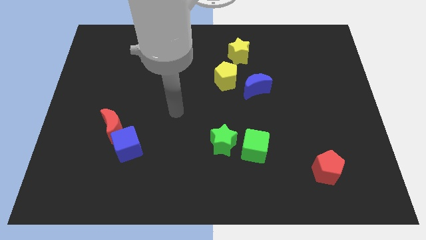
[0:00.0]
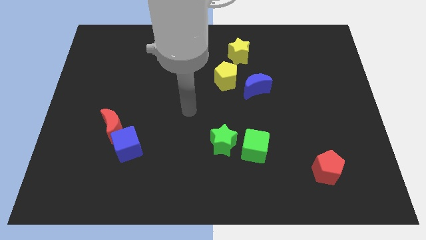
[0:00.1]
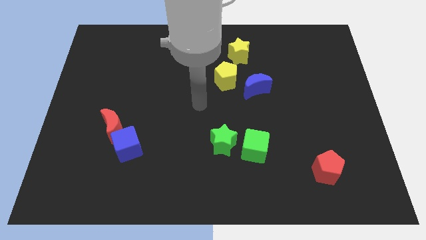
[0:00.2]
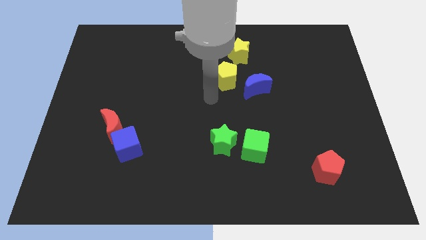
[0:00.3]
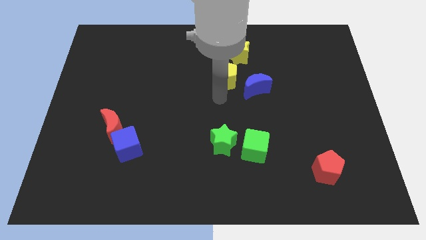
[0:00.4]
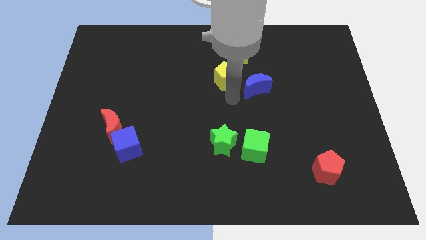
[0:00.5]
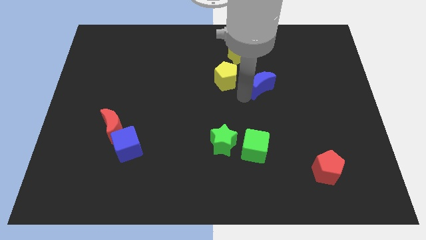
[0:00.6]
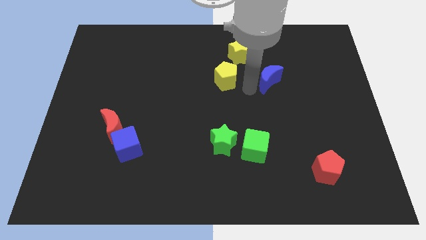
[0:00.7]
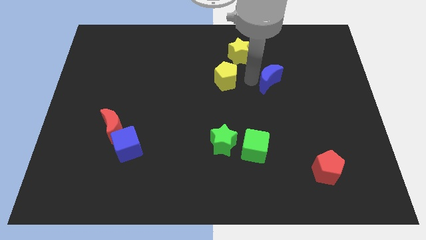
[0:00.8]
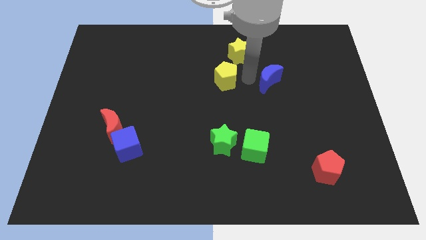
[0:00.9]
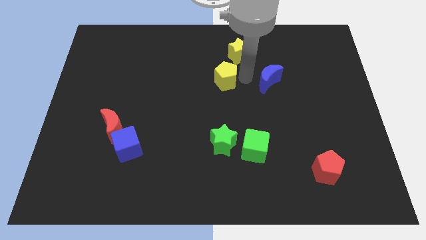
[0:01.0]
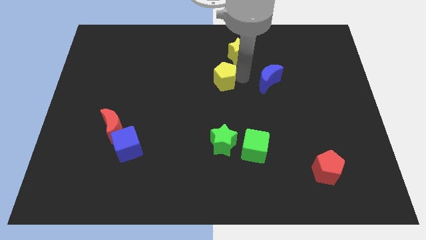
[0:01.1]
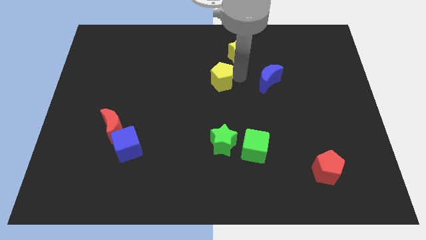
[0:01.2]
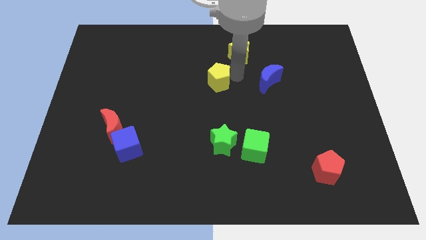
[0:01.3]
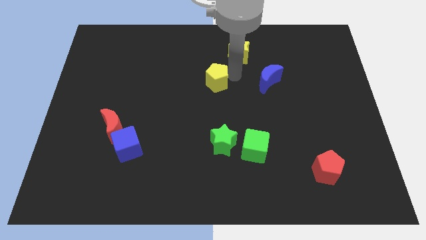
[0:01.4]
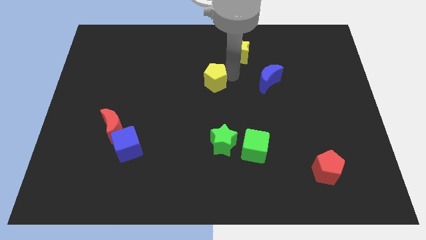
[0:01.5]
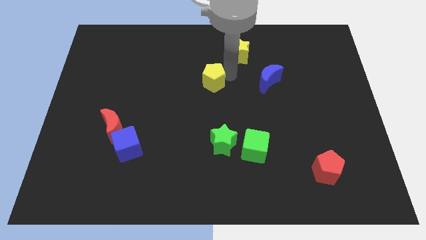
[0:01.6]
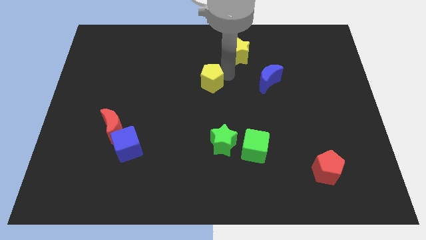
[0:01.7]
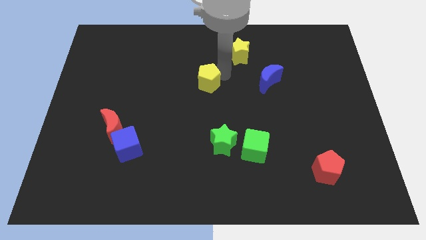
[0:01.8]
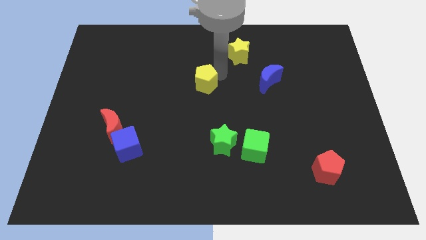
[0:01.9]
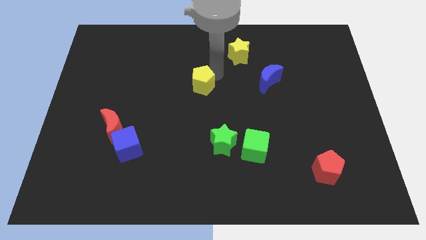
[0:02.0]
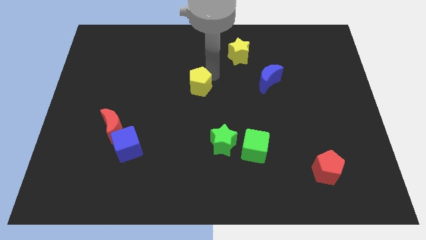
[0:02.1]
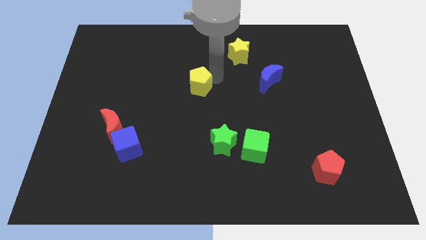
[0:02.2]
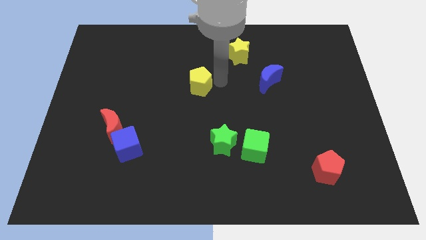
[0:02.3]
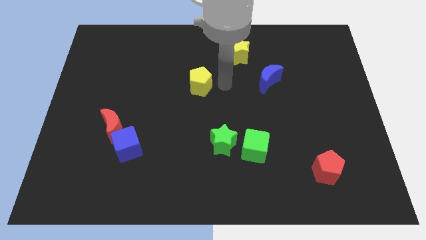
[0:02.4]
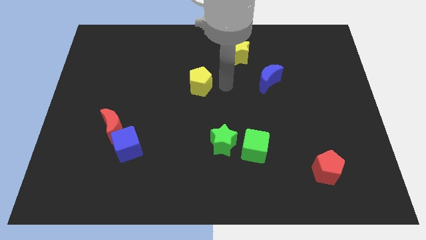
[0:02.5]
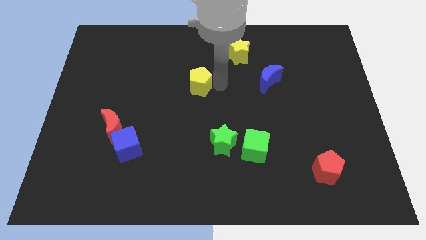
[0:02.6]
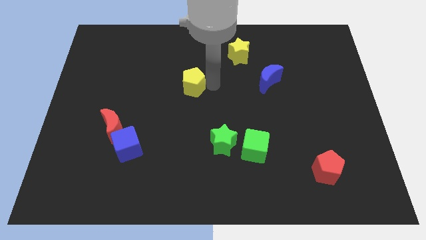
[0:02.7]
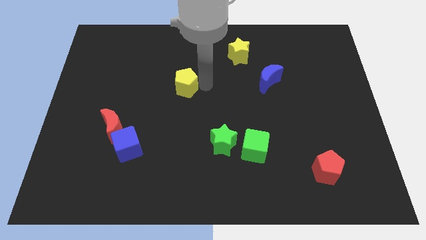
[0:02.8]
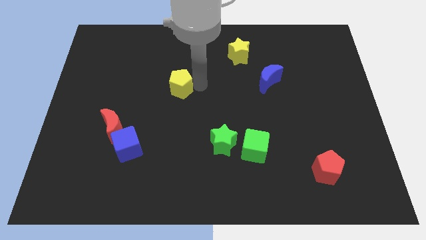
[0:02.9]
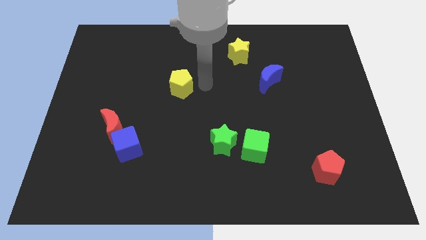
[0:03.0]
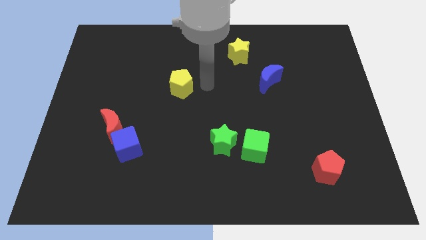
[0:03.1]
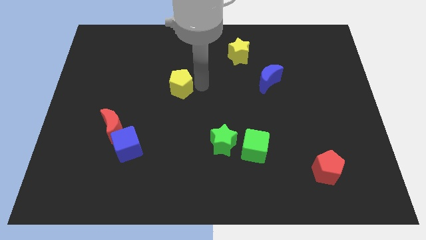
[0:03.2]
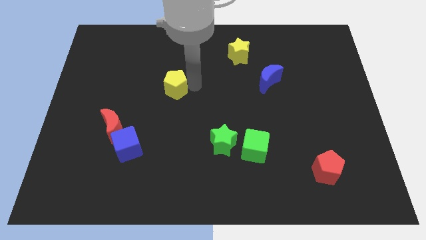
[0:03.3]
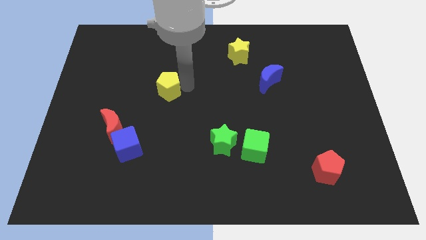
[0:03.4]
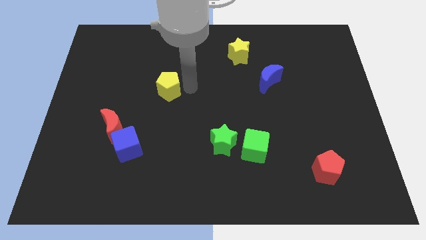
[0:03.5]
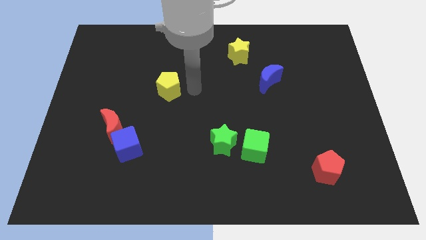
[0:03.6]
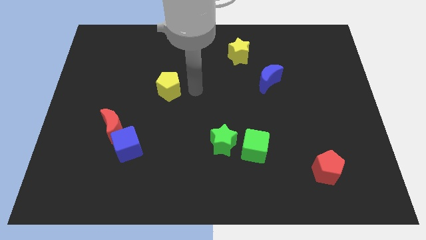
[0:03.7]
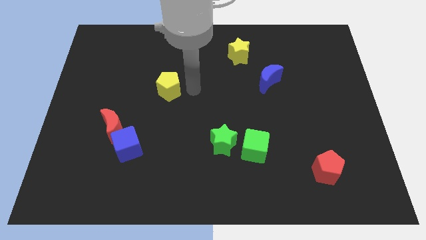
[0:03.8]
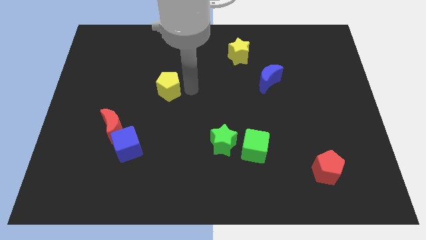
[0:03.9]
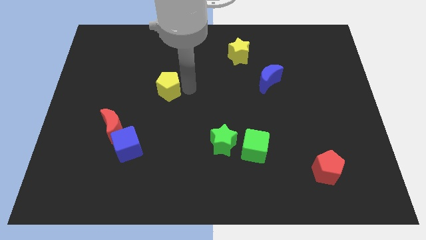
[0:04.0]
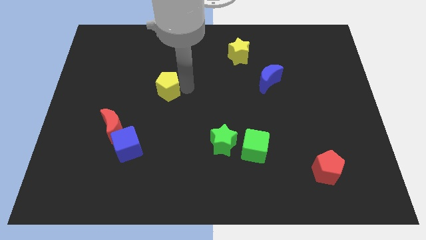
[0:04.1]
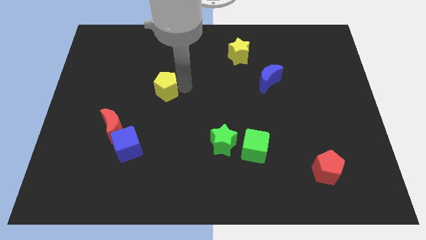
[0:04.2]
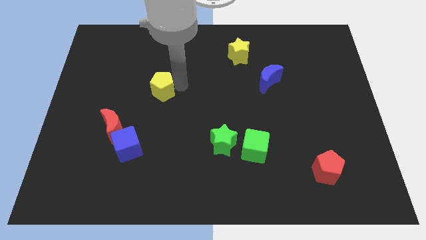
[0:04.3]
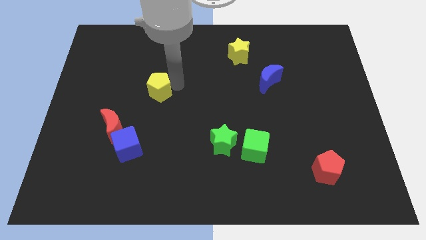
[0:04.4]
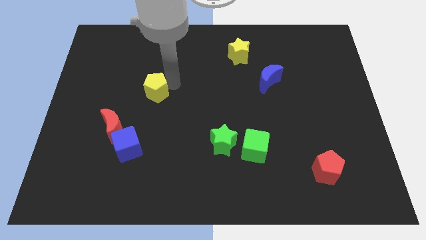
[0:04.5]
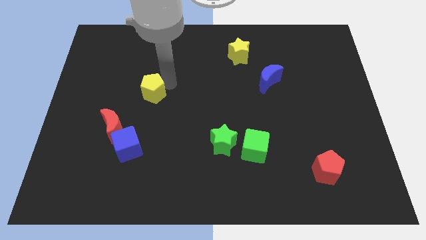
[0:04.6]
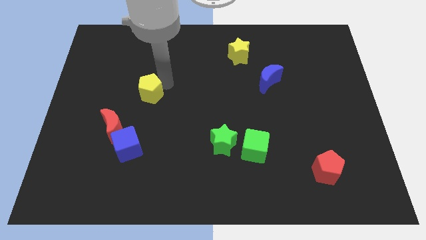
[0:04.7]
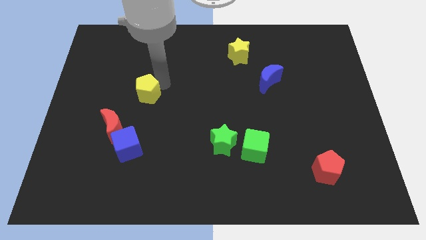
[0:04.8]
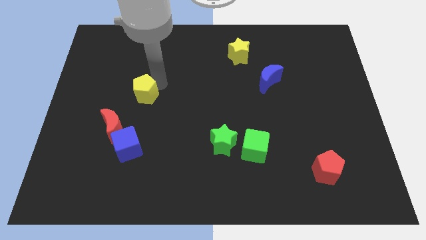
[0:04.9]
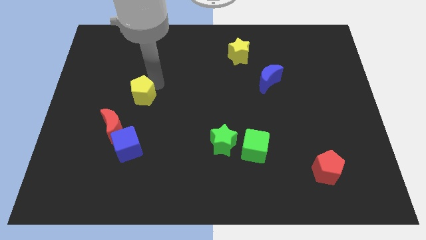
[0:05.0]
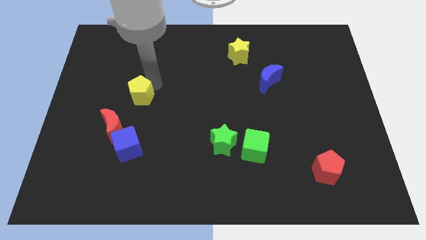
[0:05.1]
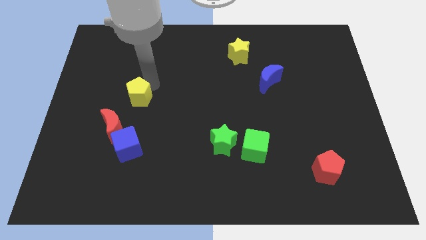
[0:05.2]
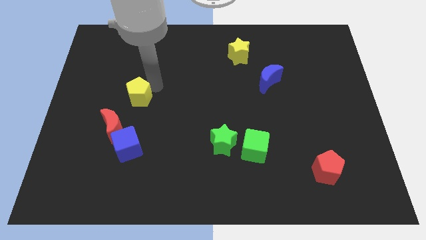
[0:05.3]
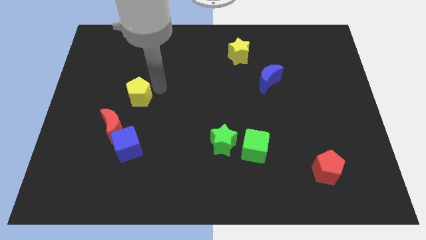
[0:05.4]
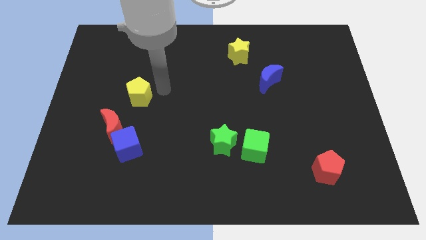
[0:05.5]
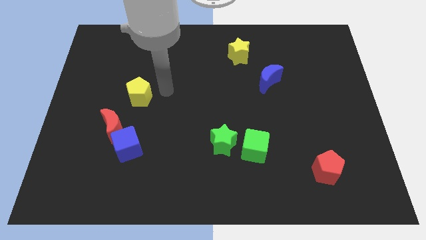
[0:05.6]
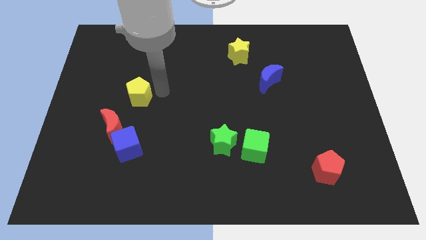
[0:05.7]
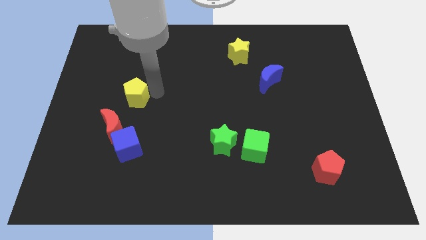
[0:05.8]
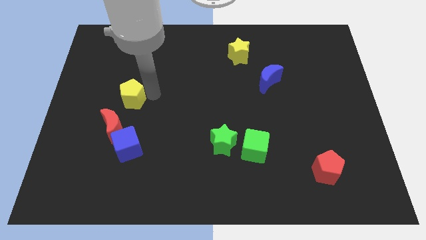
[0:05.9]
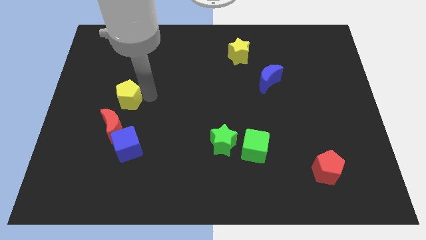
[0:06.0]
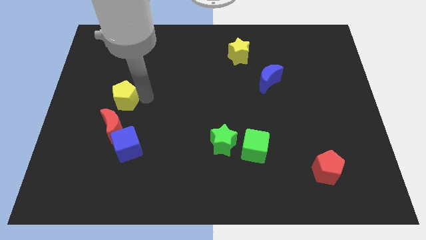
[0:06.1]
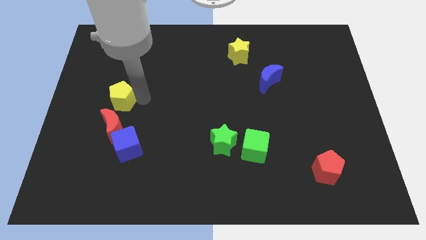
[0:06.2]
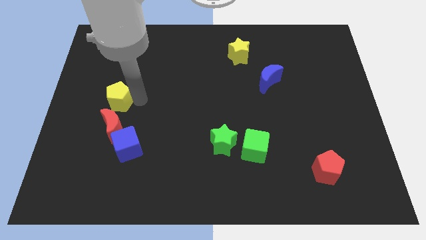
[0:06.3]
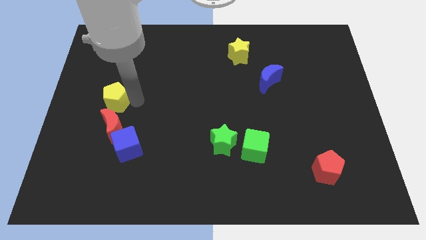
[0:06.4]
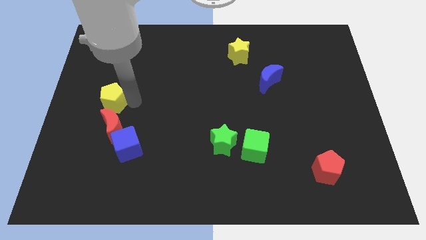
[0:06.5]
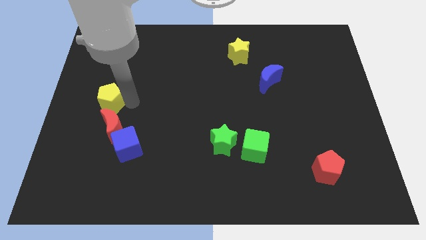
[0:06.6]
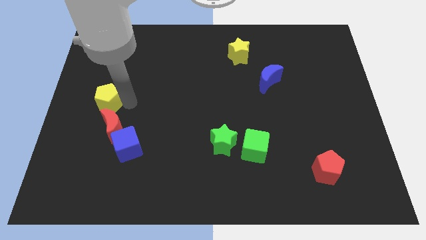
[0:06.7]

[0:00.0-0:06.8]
slide the yellow pentagon to the left side
